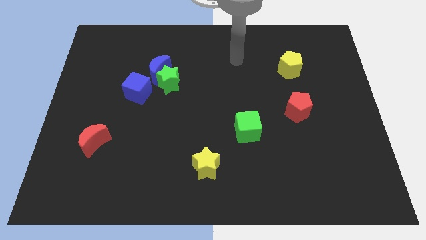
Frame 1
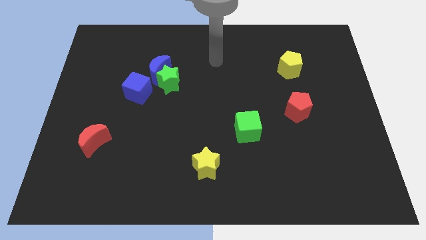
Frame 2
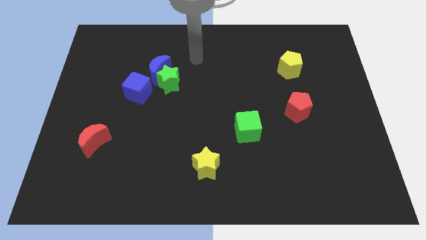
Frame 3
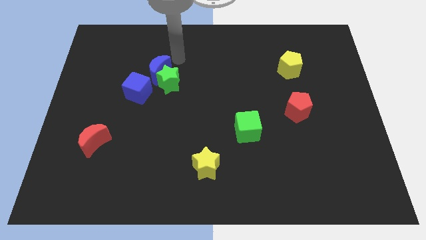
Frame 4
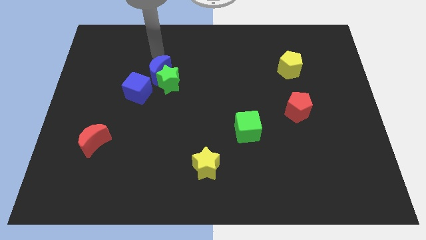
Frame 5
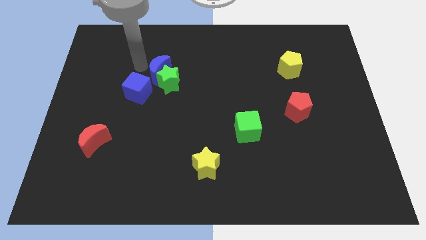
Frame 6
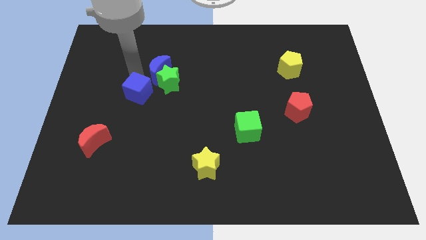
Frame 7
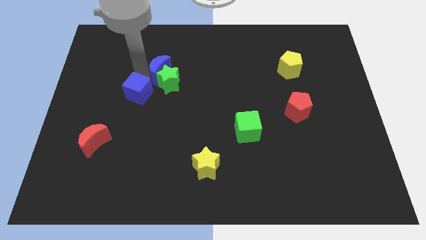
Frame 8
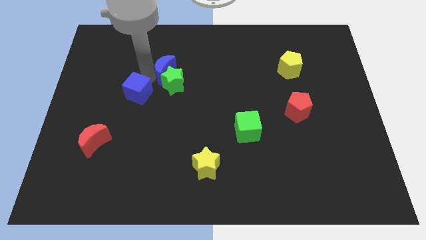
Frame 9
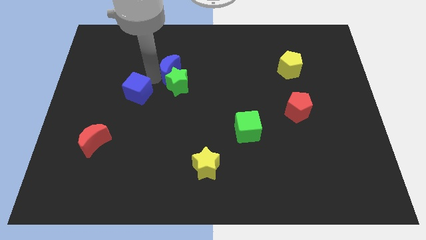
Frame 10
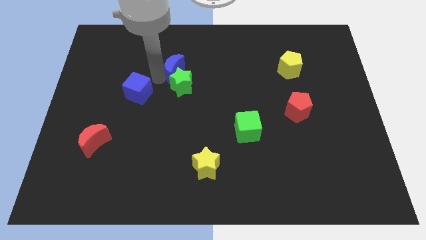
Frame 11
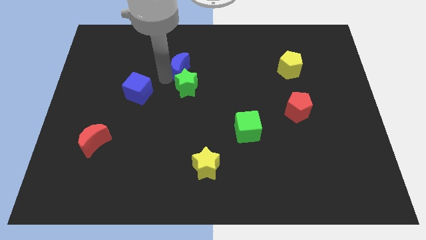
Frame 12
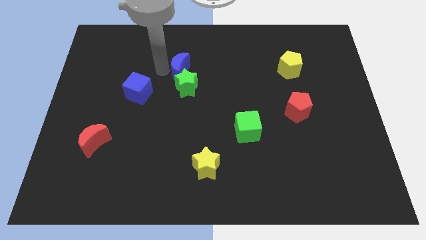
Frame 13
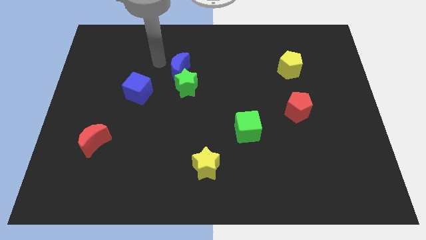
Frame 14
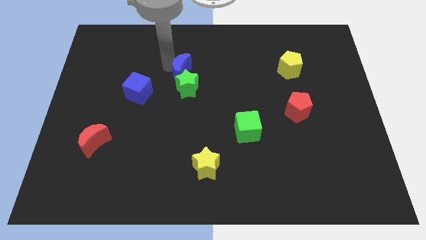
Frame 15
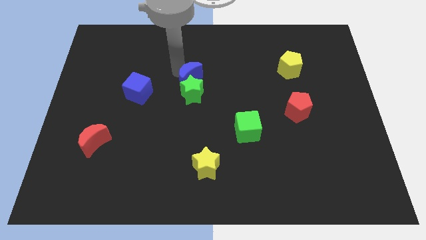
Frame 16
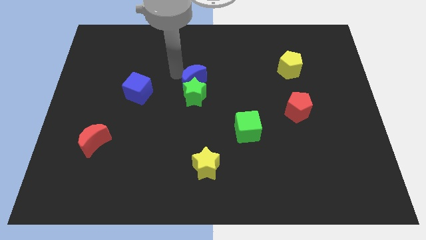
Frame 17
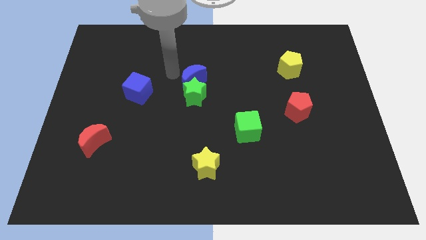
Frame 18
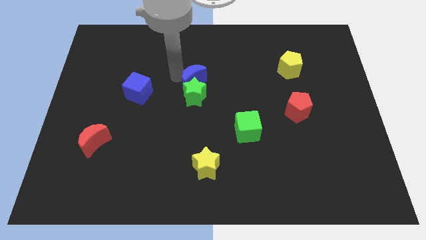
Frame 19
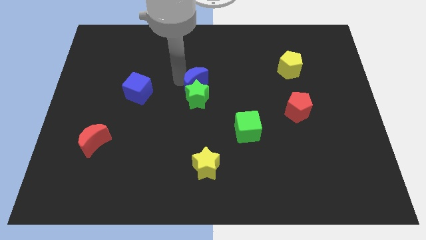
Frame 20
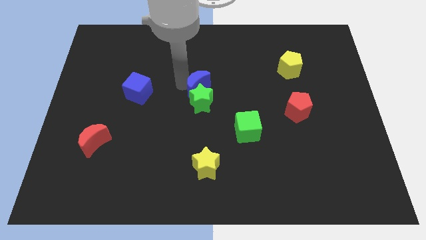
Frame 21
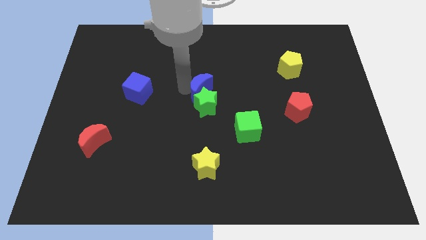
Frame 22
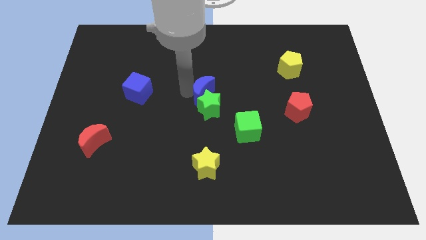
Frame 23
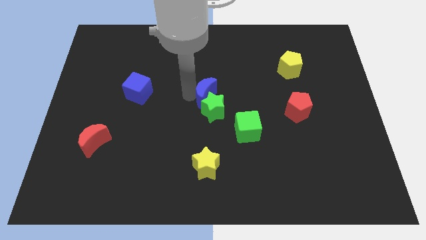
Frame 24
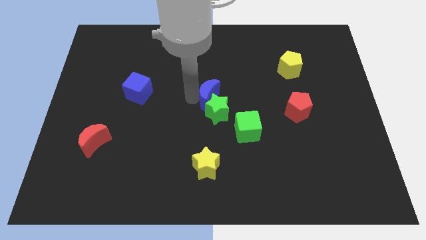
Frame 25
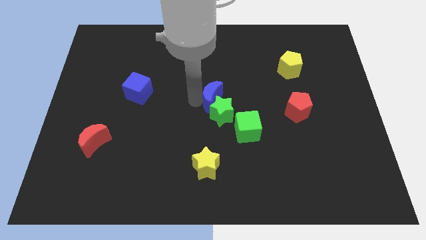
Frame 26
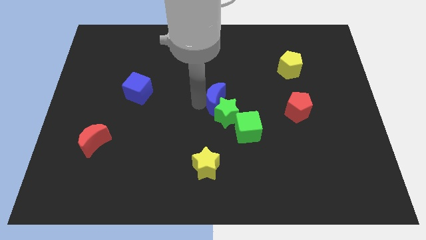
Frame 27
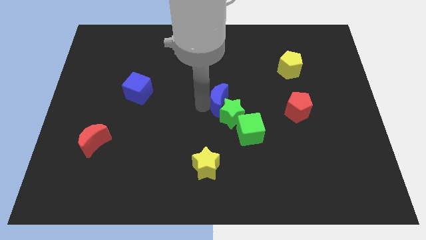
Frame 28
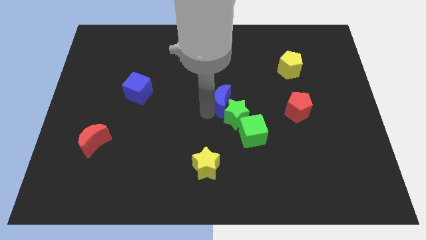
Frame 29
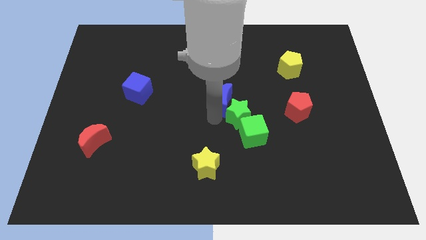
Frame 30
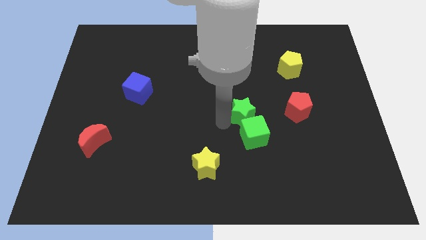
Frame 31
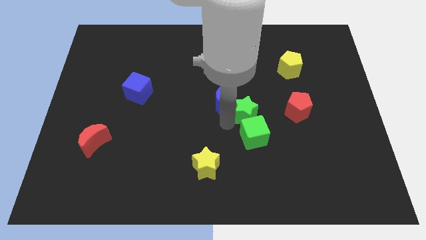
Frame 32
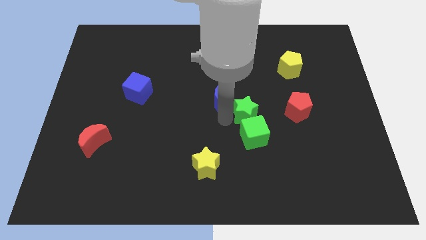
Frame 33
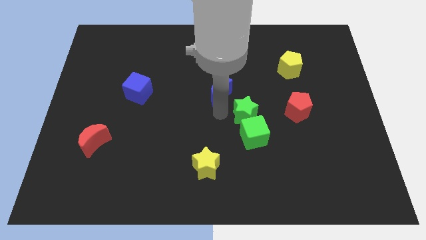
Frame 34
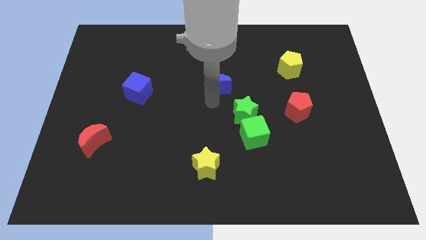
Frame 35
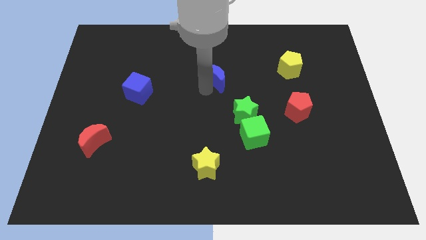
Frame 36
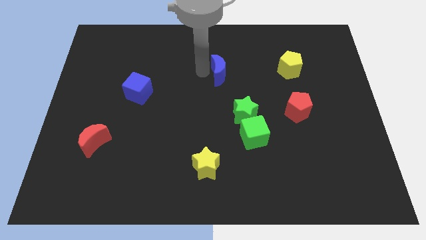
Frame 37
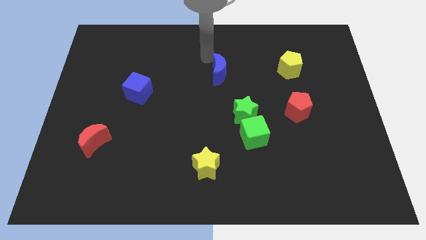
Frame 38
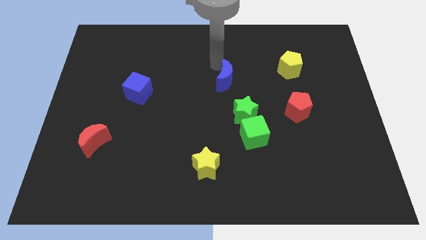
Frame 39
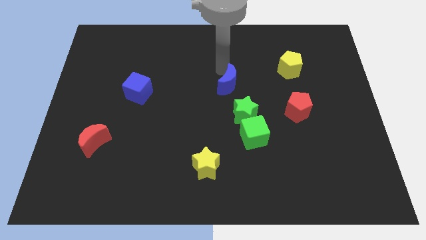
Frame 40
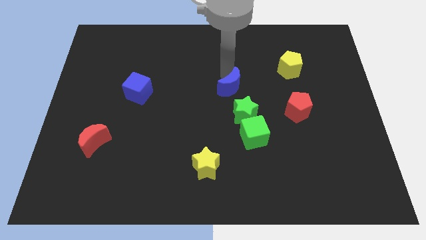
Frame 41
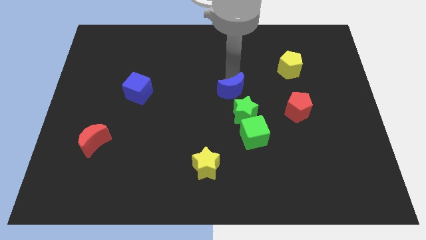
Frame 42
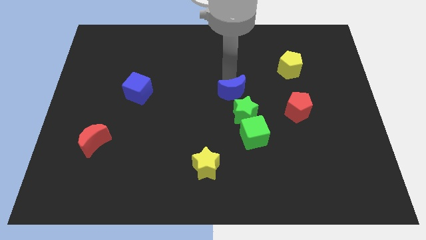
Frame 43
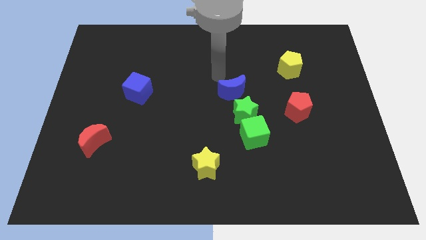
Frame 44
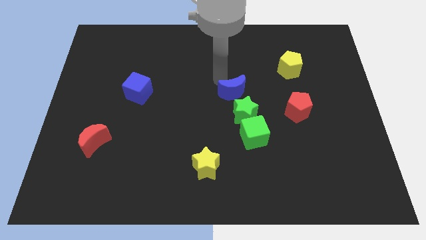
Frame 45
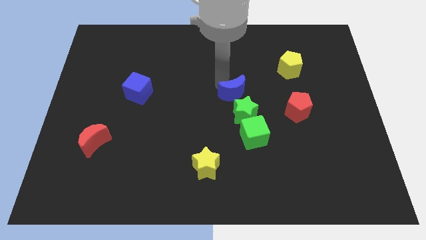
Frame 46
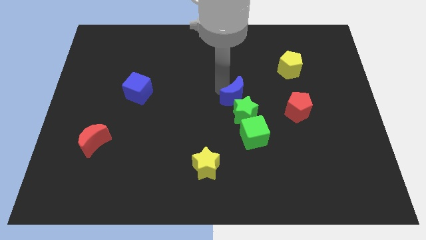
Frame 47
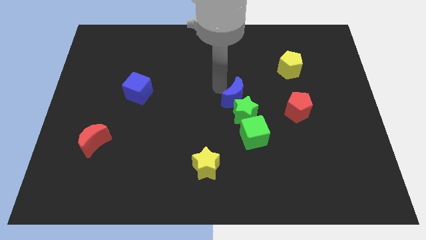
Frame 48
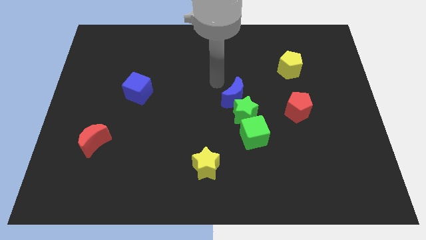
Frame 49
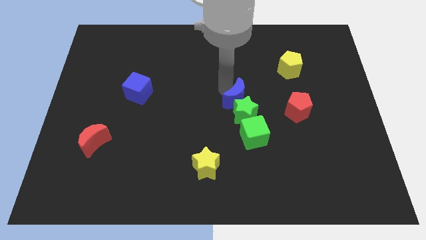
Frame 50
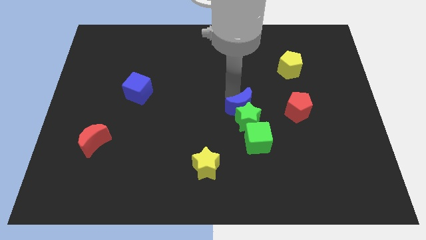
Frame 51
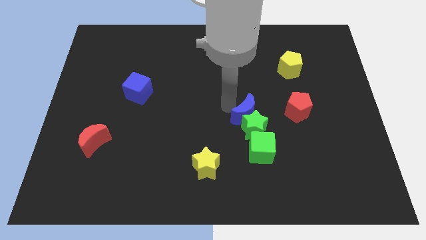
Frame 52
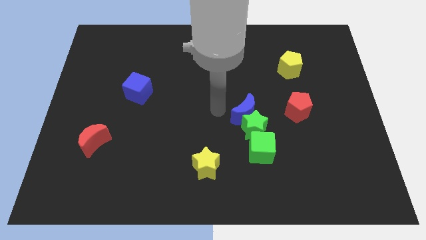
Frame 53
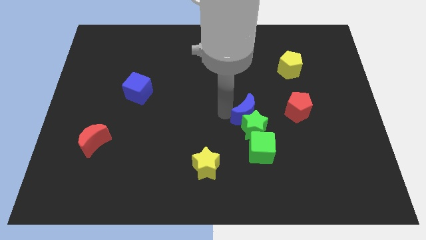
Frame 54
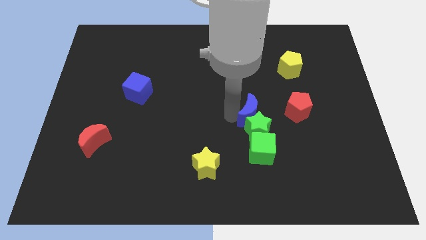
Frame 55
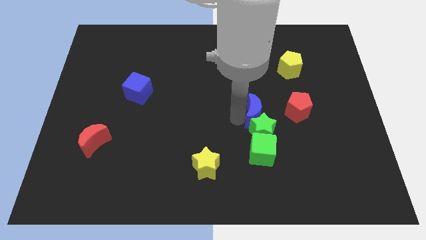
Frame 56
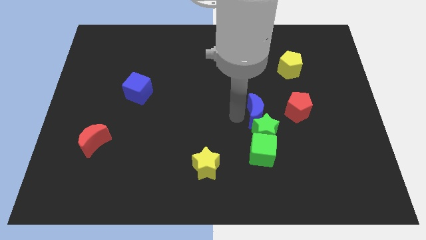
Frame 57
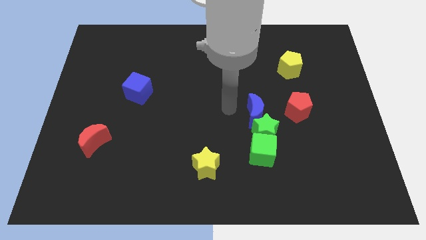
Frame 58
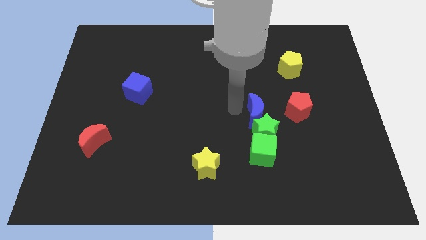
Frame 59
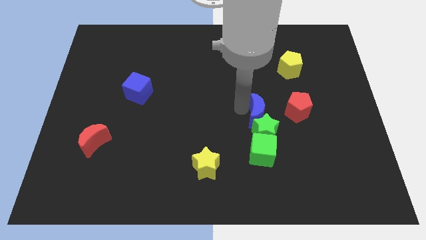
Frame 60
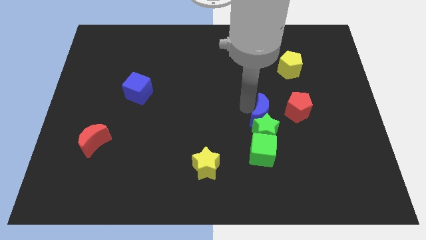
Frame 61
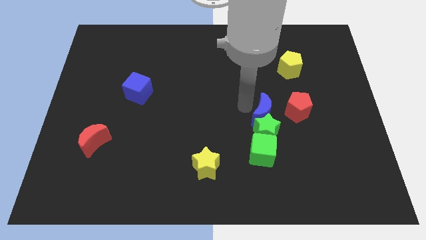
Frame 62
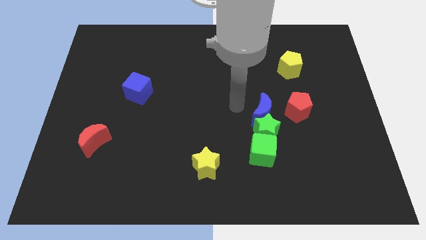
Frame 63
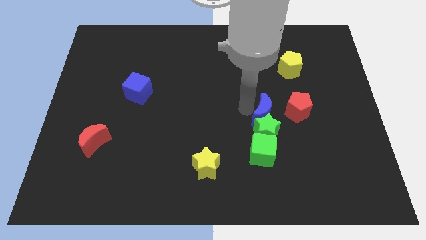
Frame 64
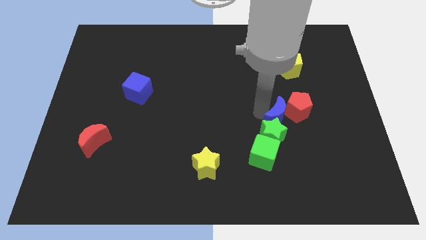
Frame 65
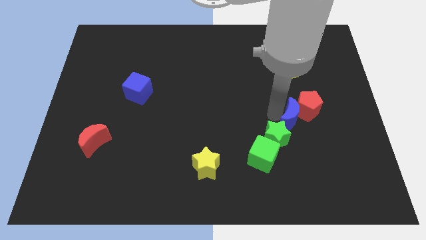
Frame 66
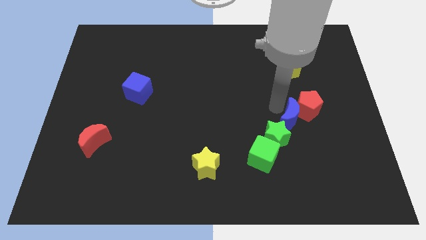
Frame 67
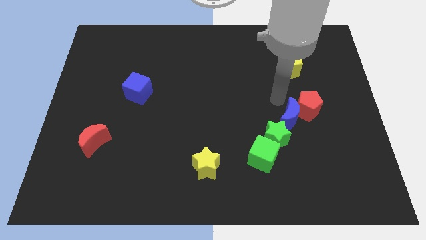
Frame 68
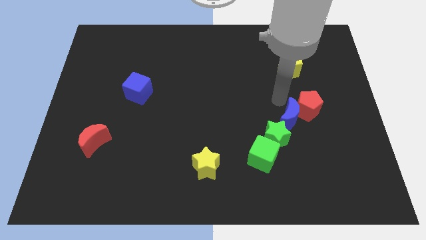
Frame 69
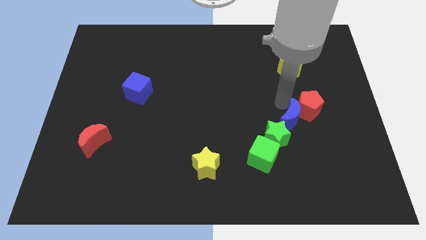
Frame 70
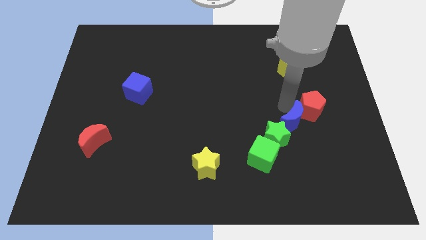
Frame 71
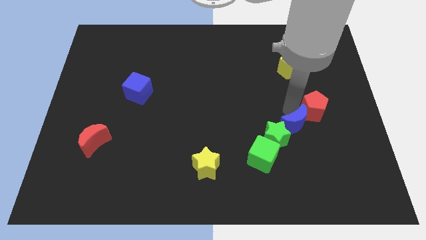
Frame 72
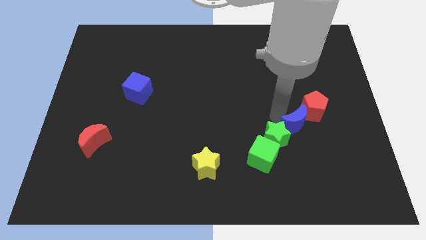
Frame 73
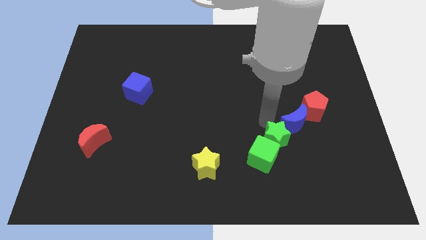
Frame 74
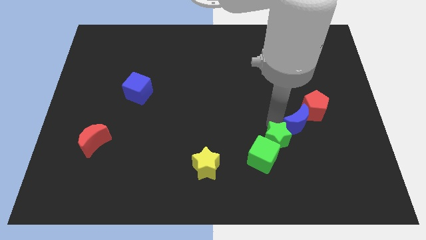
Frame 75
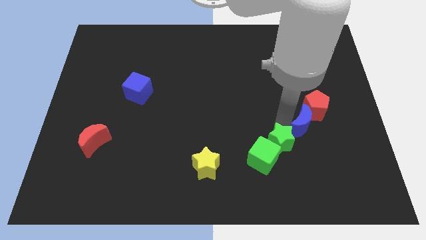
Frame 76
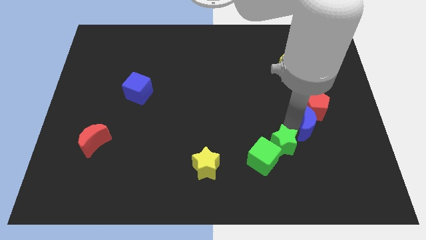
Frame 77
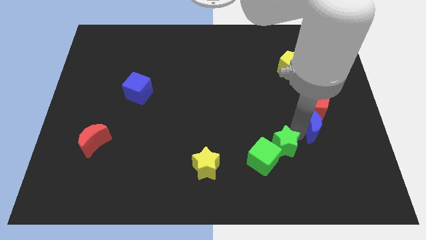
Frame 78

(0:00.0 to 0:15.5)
put the blue moon diagonally down and to the right of the red pentagon
